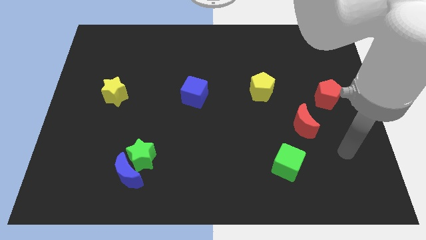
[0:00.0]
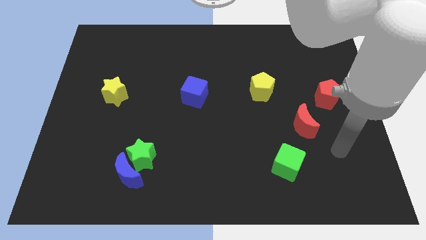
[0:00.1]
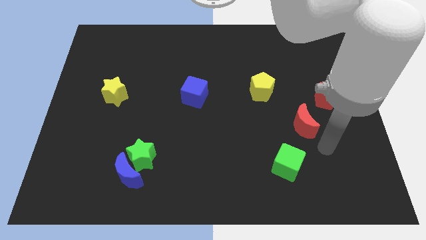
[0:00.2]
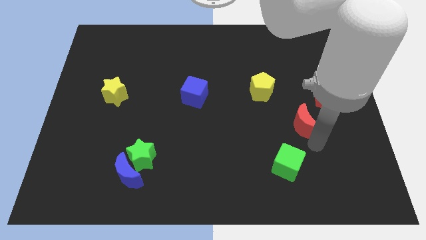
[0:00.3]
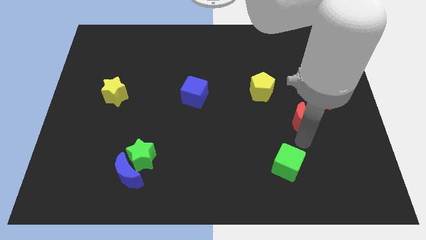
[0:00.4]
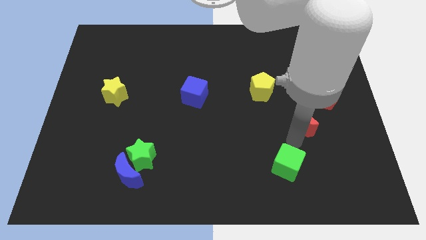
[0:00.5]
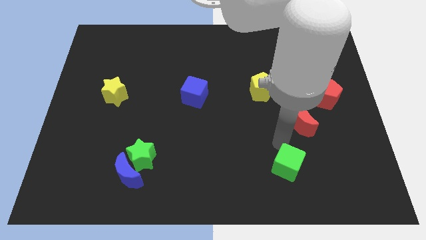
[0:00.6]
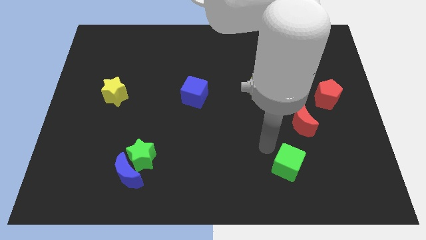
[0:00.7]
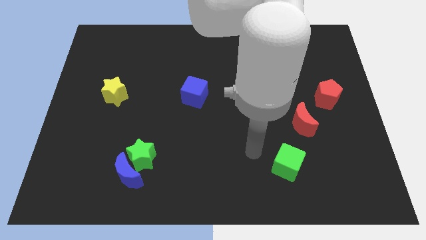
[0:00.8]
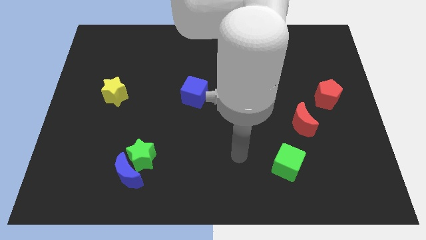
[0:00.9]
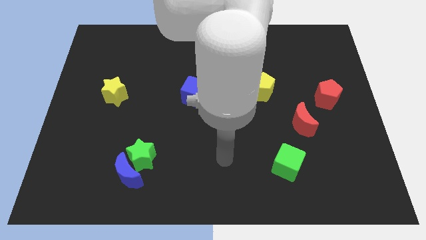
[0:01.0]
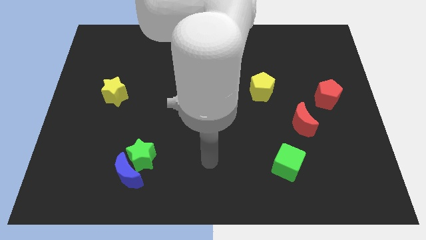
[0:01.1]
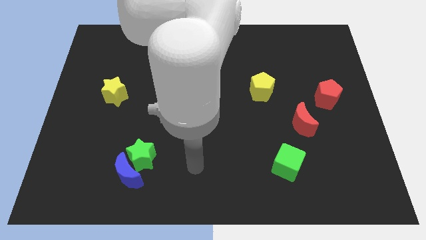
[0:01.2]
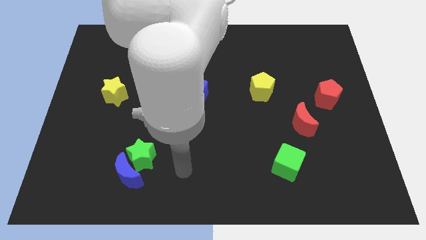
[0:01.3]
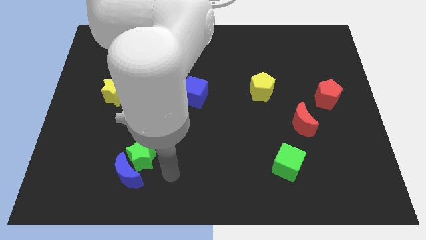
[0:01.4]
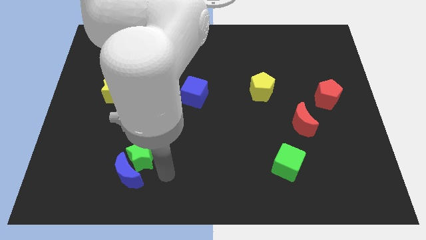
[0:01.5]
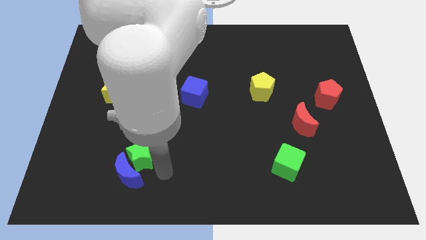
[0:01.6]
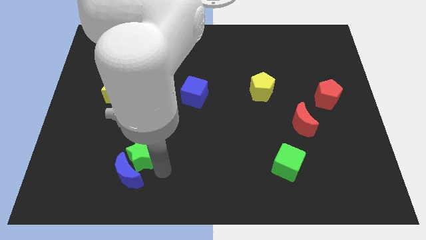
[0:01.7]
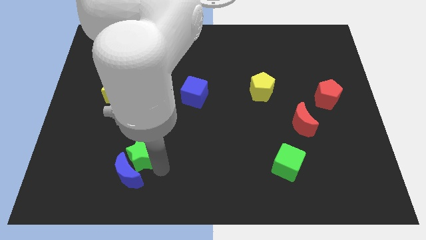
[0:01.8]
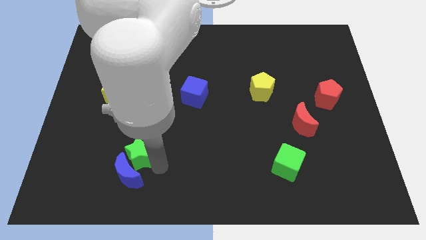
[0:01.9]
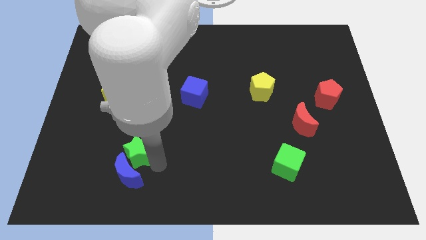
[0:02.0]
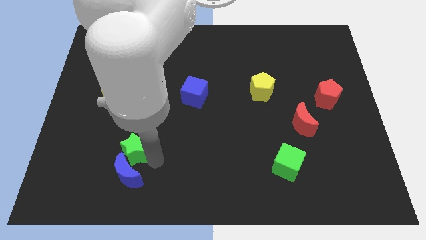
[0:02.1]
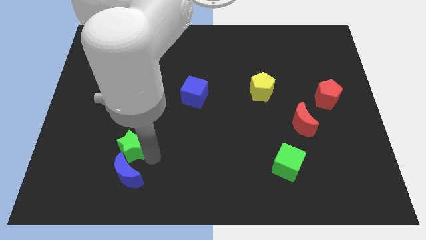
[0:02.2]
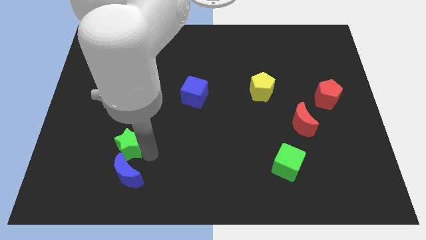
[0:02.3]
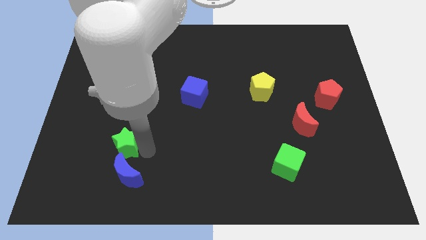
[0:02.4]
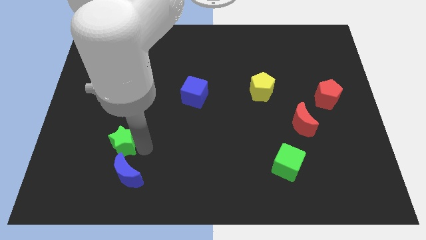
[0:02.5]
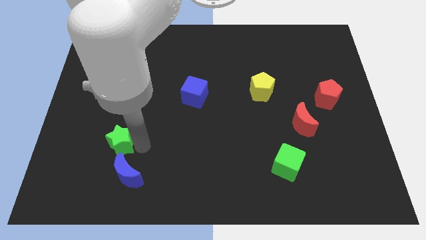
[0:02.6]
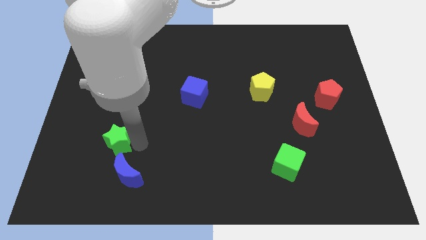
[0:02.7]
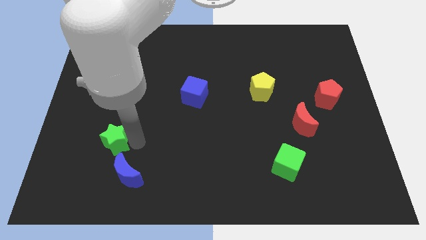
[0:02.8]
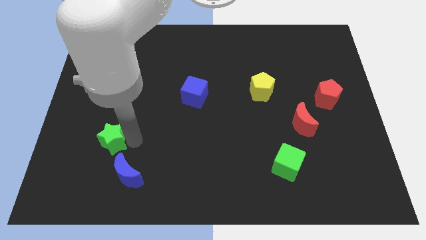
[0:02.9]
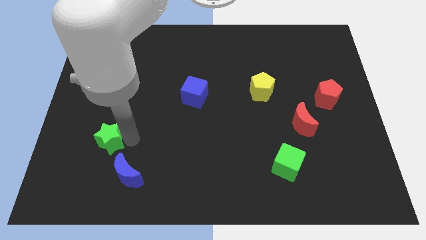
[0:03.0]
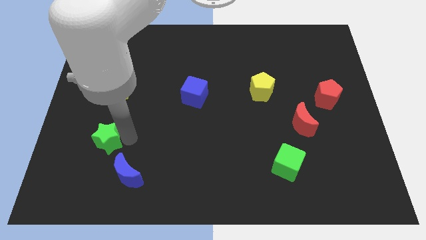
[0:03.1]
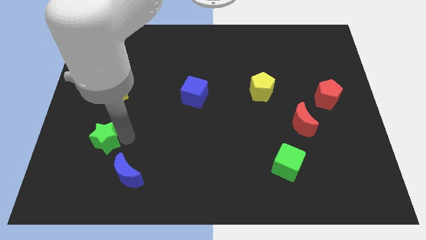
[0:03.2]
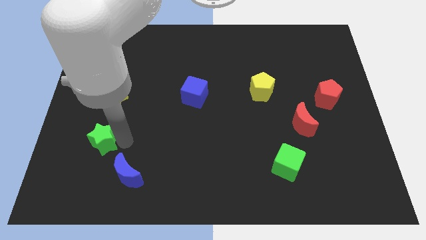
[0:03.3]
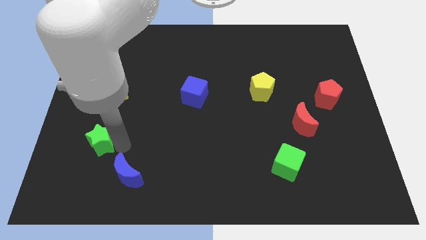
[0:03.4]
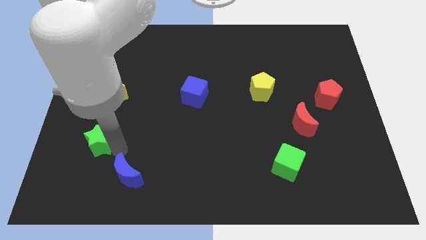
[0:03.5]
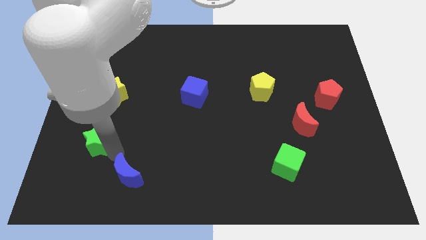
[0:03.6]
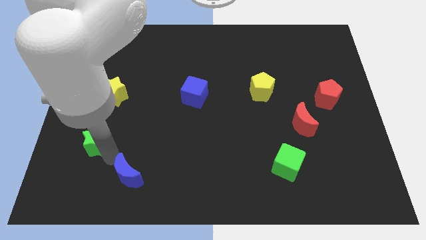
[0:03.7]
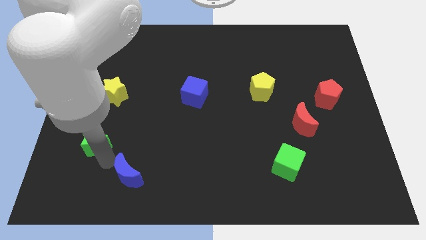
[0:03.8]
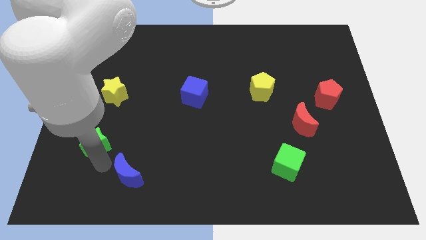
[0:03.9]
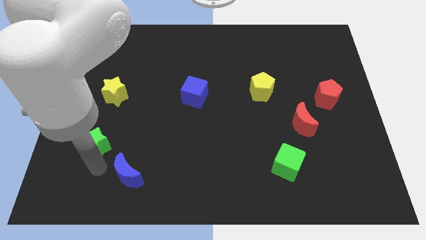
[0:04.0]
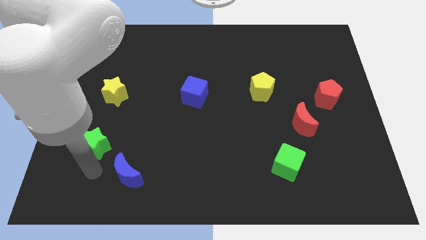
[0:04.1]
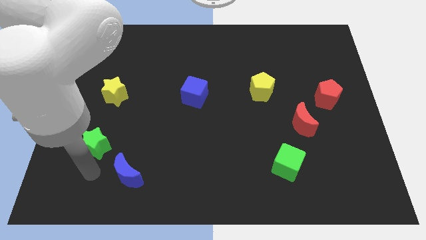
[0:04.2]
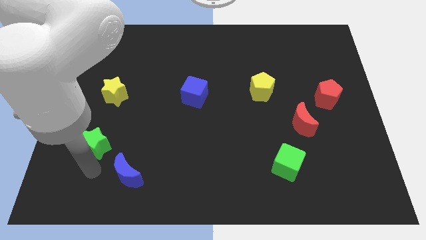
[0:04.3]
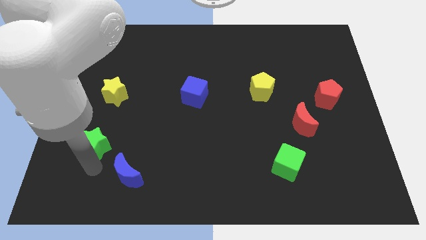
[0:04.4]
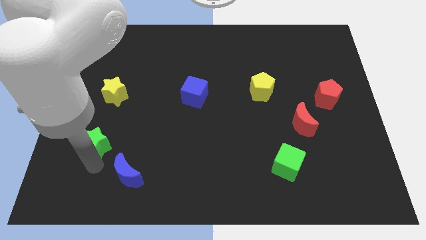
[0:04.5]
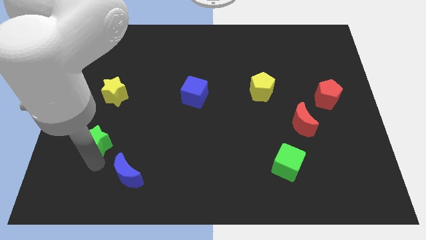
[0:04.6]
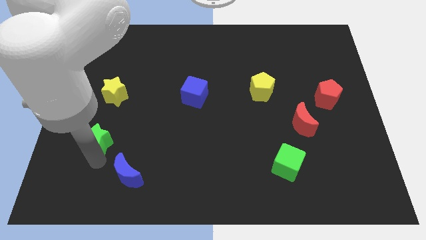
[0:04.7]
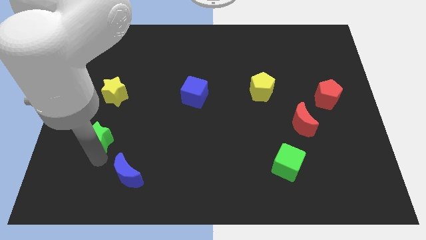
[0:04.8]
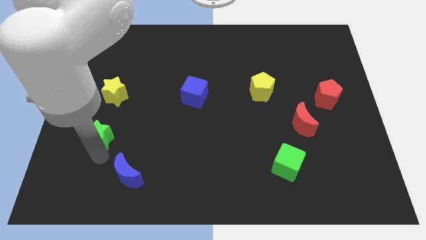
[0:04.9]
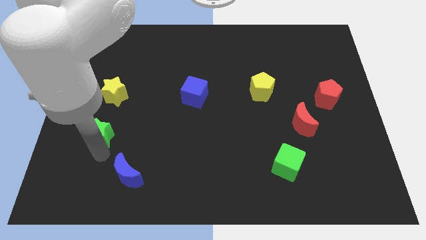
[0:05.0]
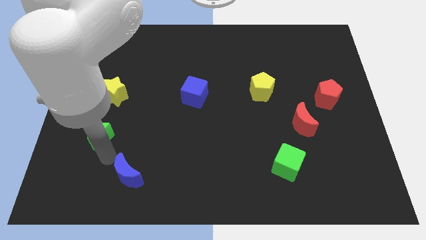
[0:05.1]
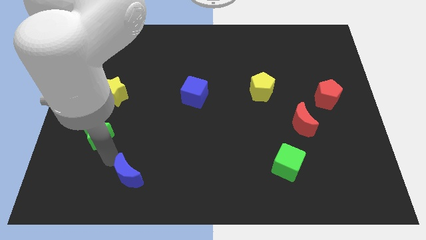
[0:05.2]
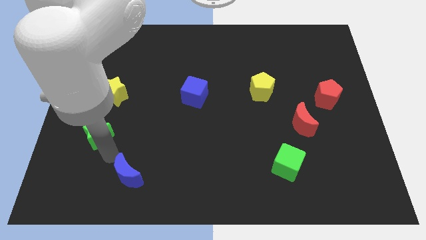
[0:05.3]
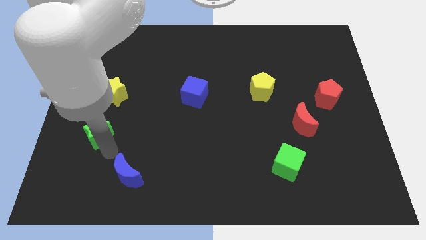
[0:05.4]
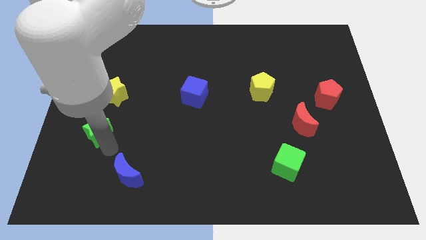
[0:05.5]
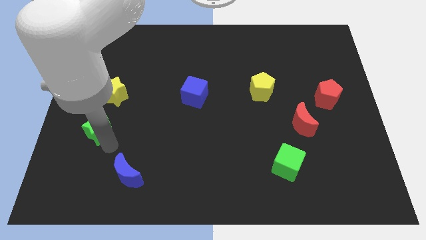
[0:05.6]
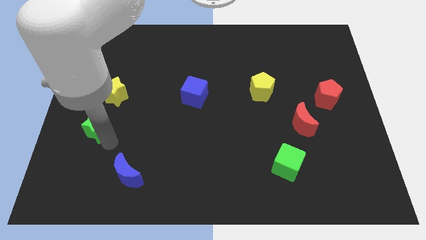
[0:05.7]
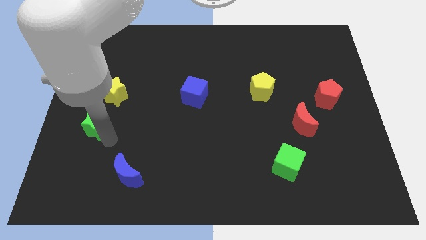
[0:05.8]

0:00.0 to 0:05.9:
push the green star to the bottom left side of the yellow star

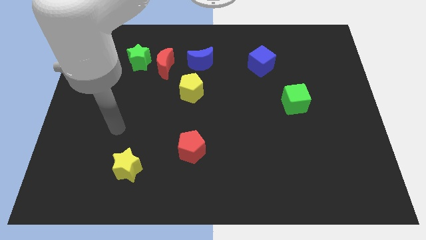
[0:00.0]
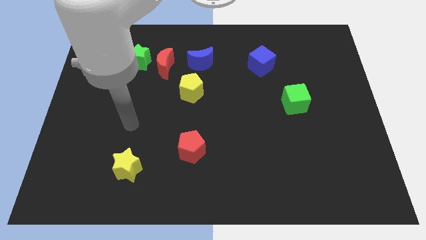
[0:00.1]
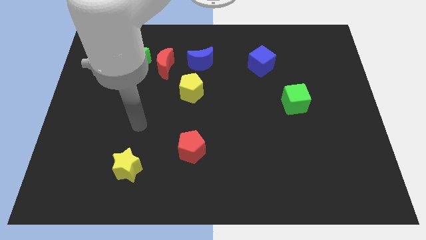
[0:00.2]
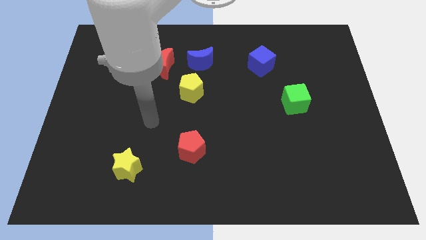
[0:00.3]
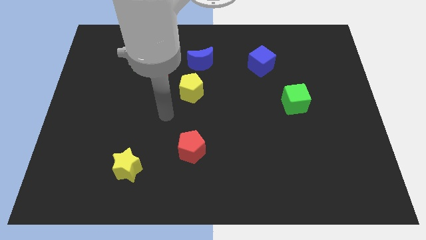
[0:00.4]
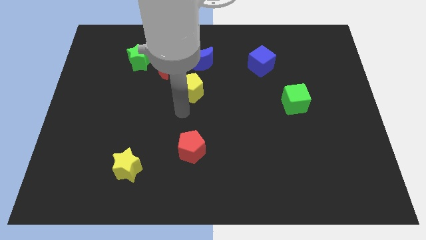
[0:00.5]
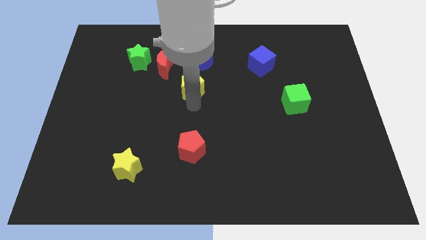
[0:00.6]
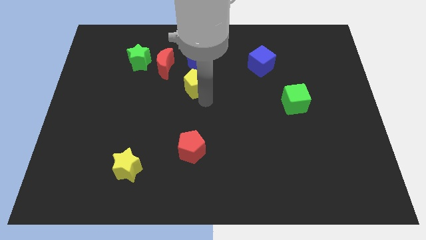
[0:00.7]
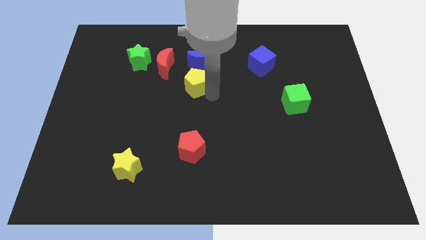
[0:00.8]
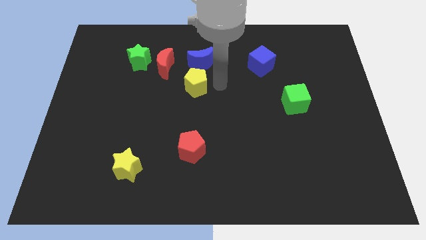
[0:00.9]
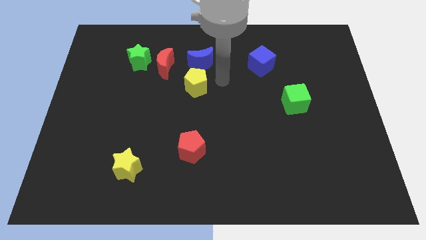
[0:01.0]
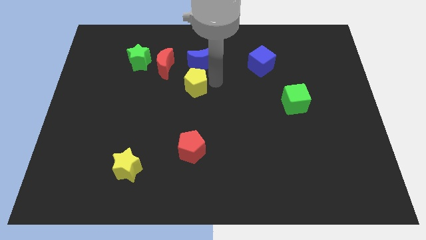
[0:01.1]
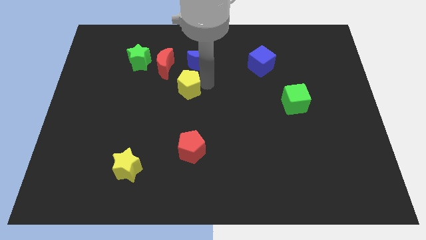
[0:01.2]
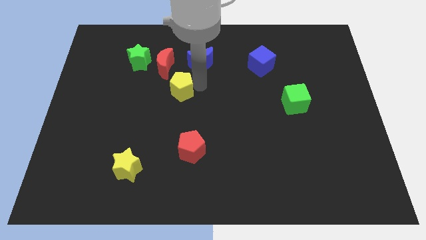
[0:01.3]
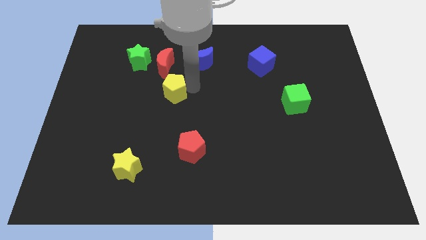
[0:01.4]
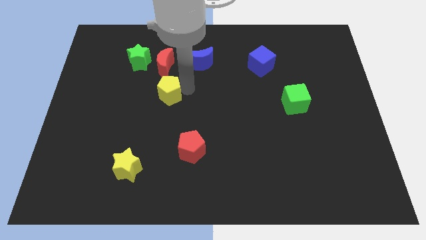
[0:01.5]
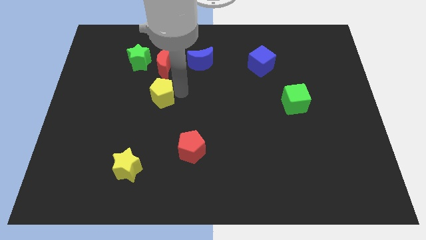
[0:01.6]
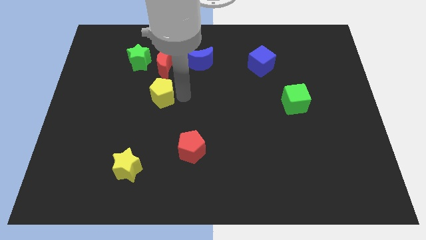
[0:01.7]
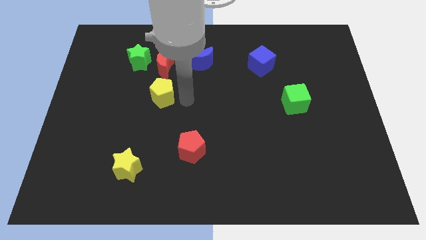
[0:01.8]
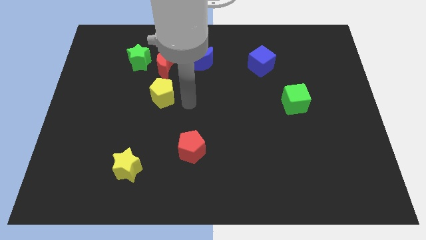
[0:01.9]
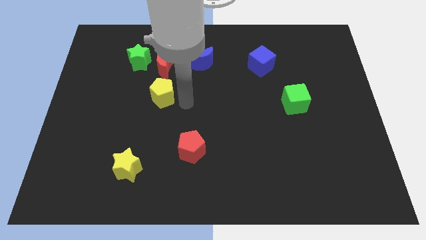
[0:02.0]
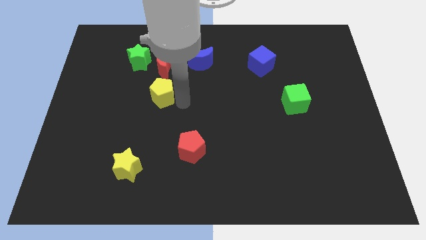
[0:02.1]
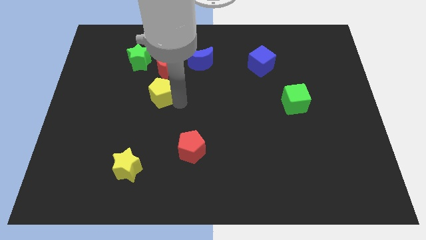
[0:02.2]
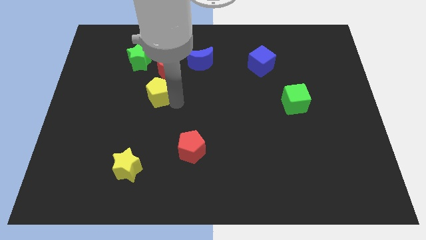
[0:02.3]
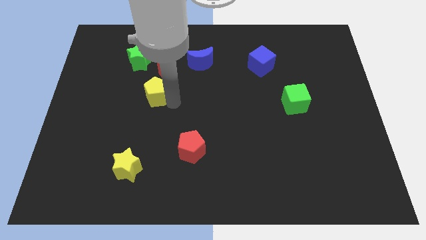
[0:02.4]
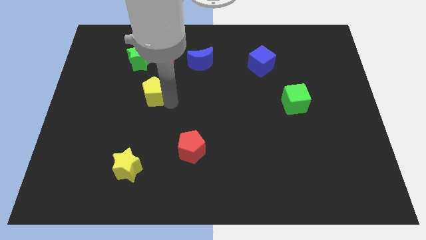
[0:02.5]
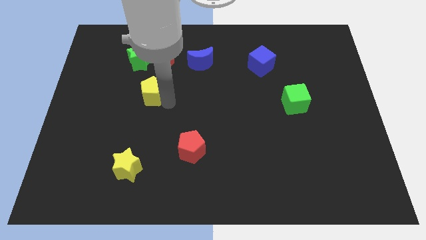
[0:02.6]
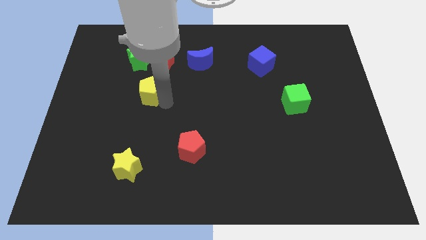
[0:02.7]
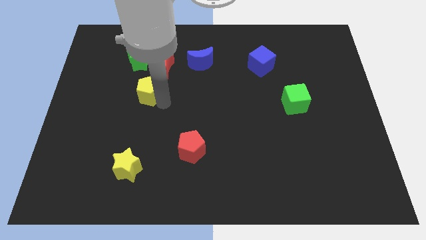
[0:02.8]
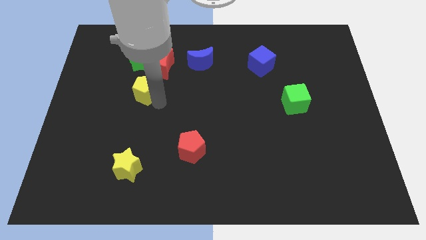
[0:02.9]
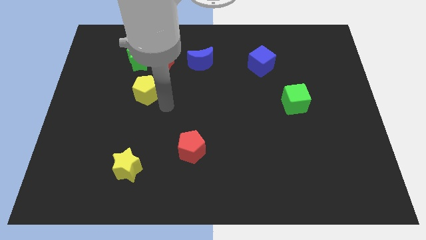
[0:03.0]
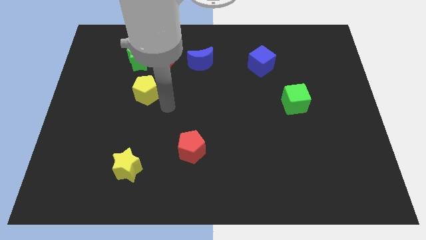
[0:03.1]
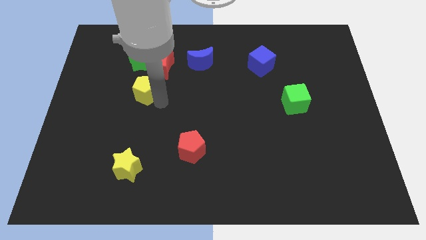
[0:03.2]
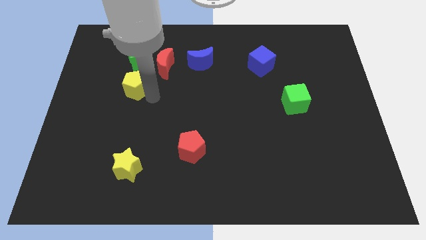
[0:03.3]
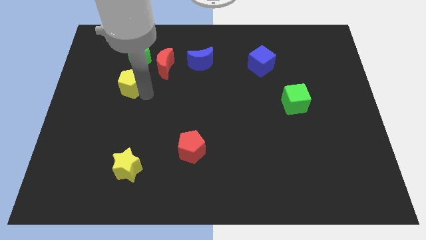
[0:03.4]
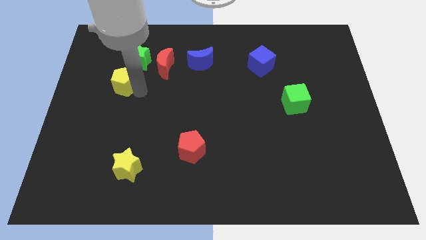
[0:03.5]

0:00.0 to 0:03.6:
move the yellow pentagon diagonally down and to the left of the green star
